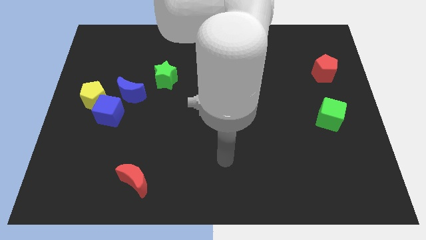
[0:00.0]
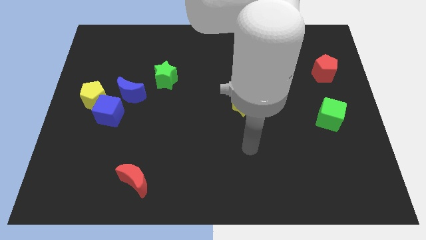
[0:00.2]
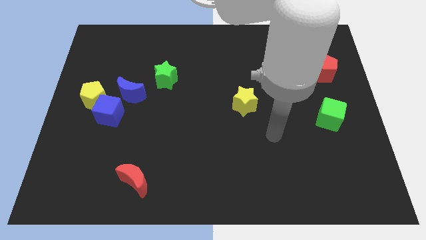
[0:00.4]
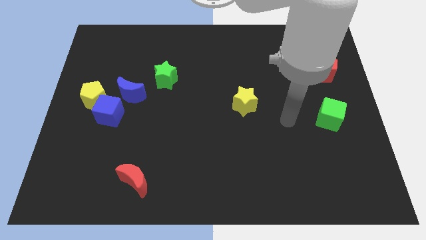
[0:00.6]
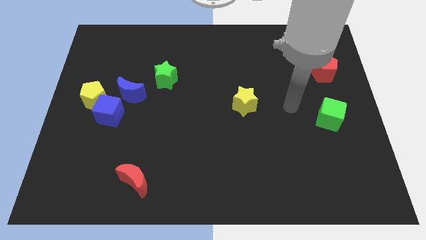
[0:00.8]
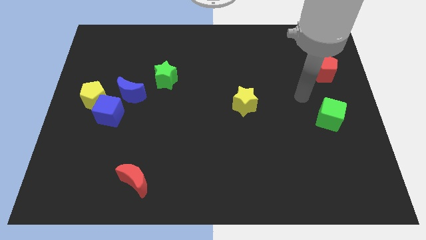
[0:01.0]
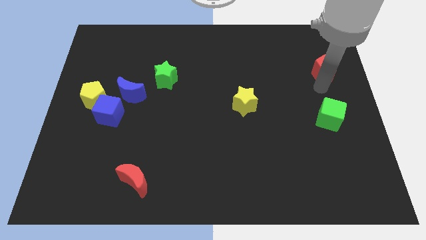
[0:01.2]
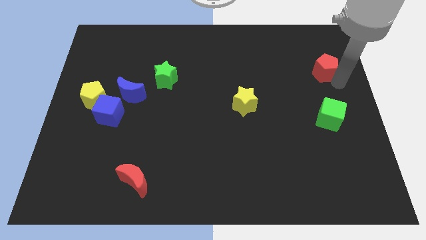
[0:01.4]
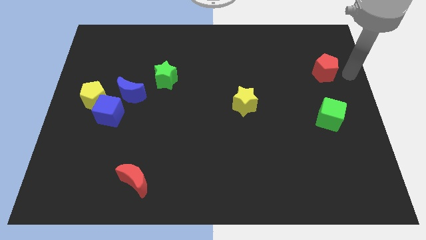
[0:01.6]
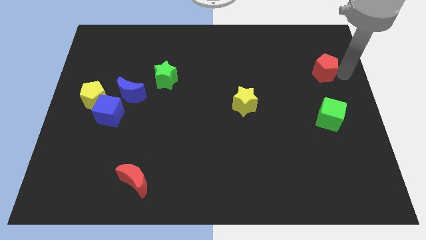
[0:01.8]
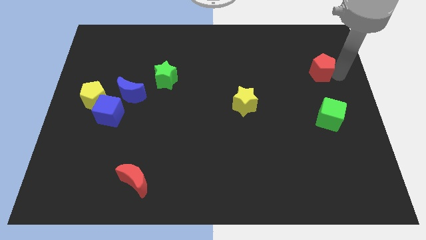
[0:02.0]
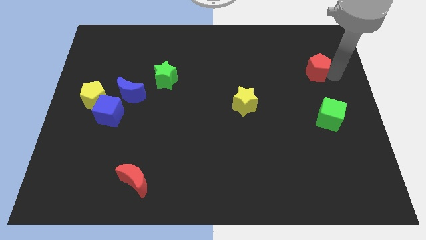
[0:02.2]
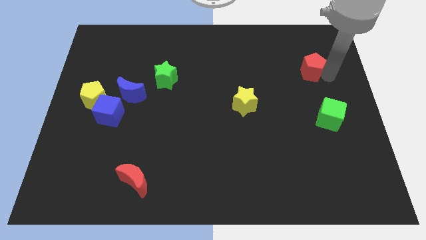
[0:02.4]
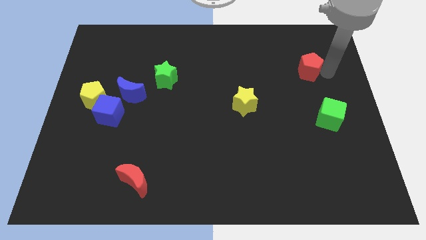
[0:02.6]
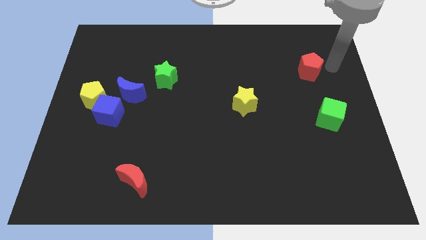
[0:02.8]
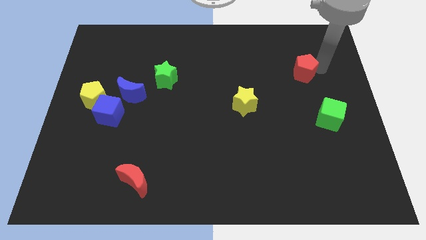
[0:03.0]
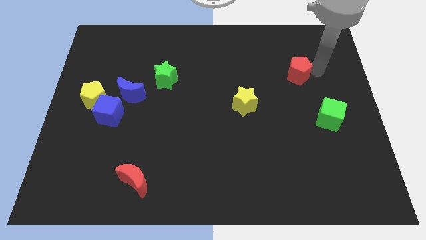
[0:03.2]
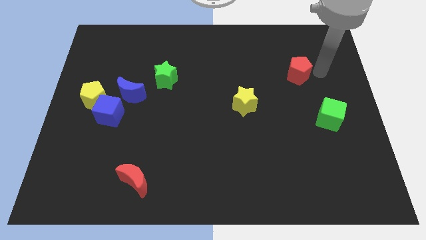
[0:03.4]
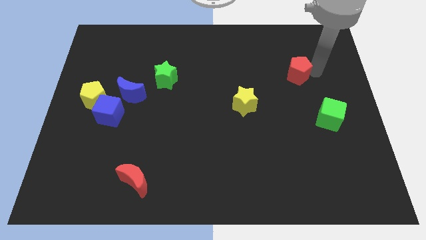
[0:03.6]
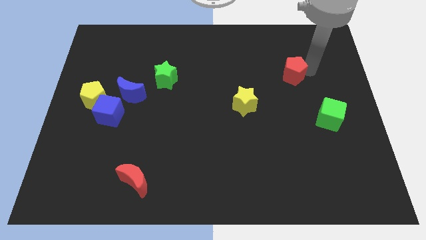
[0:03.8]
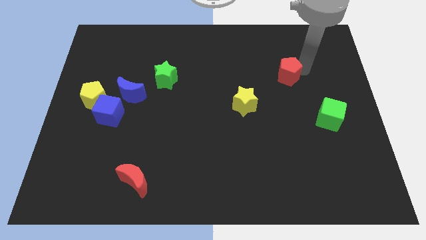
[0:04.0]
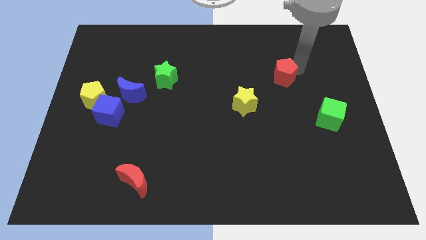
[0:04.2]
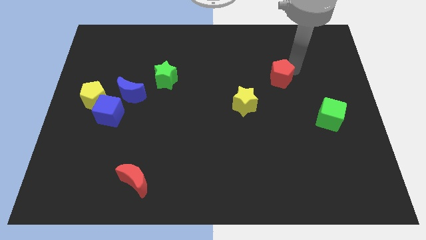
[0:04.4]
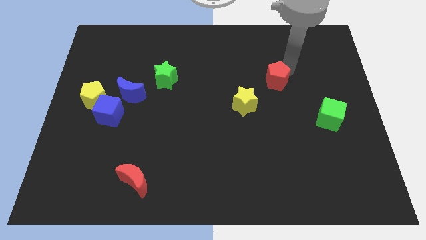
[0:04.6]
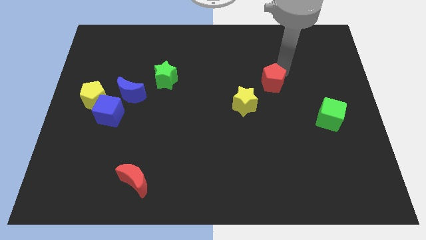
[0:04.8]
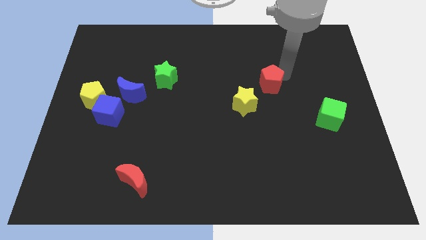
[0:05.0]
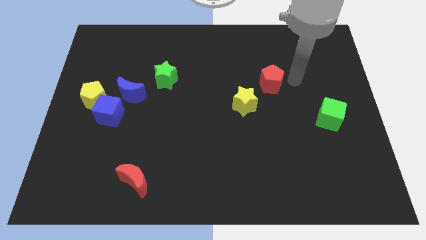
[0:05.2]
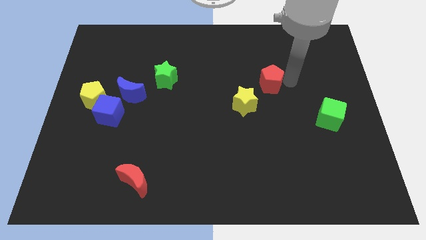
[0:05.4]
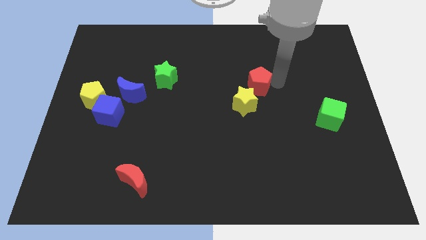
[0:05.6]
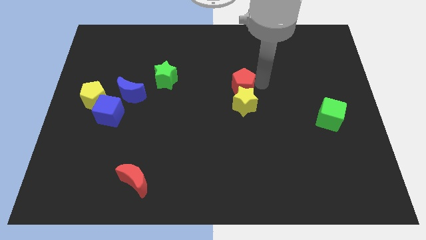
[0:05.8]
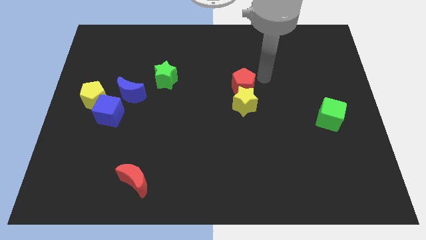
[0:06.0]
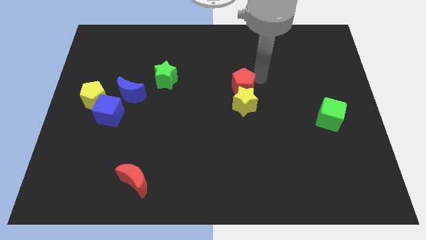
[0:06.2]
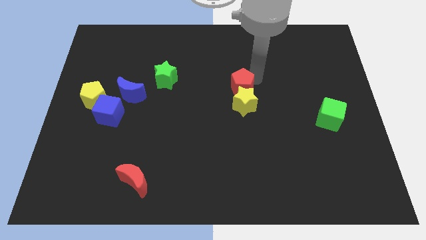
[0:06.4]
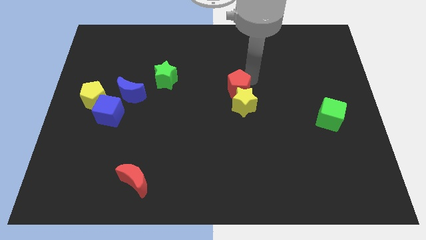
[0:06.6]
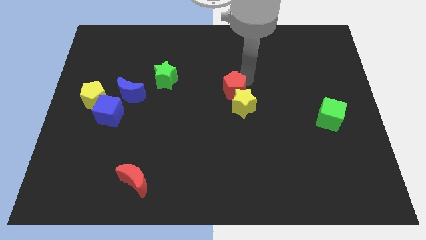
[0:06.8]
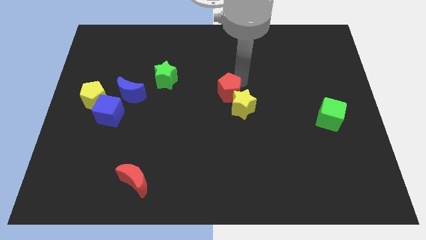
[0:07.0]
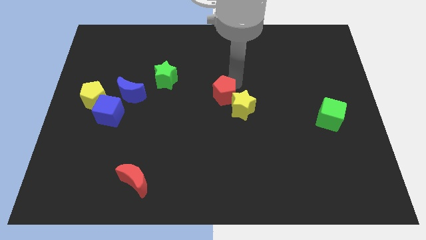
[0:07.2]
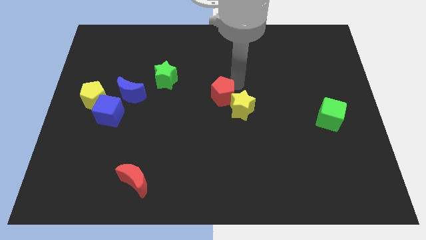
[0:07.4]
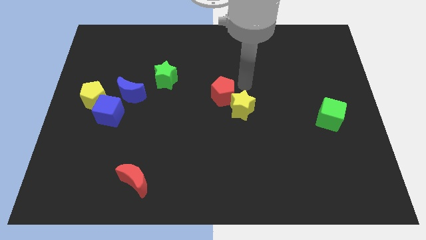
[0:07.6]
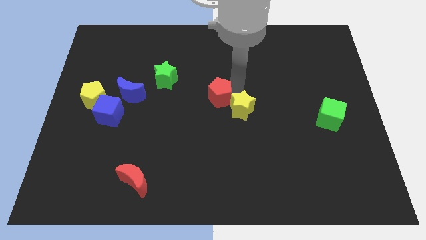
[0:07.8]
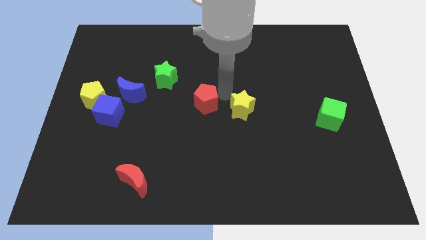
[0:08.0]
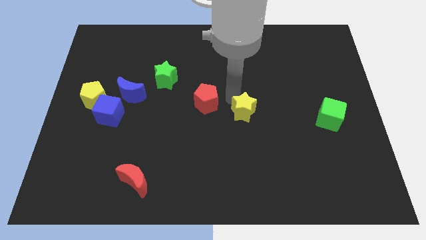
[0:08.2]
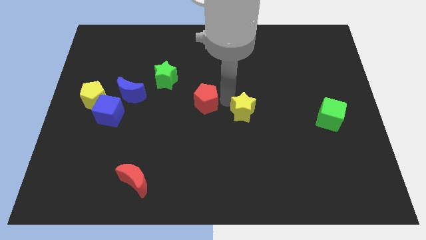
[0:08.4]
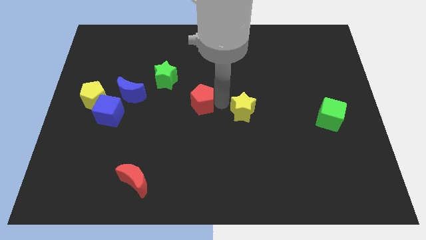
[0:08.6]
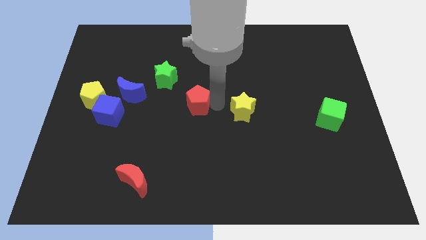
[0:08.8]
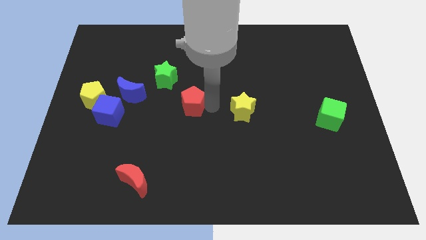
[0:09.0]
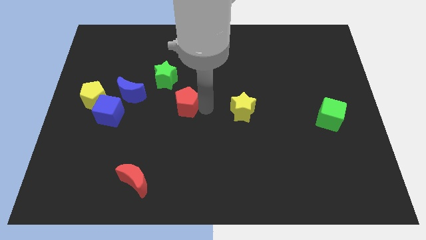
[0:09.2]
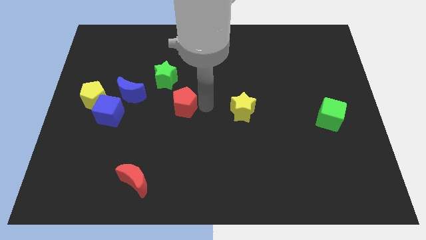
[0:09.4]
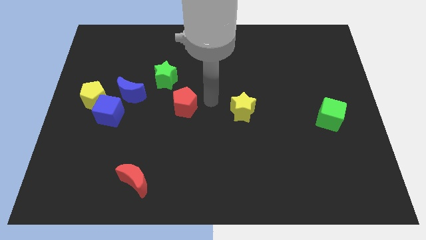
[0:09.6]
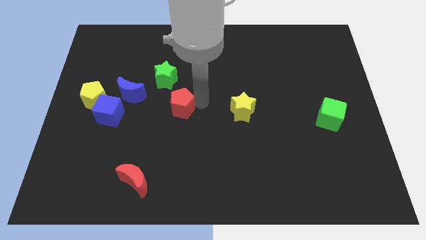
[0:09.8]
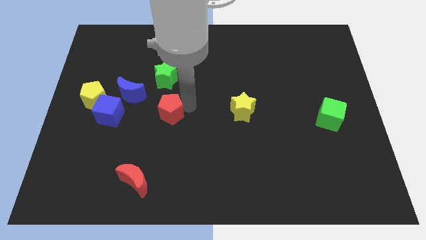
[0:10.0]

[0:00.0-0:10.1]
push the red pentagon diagonally down and to the right of the blue moon
